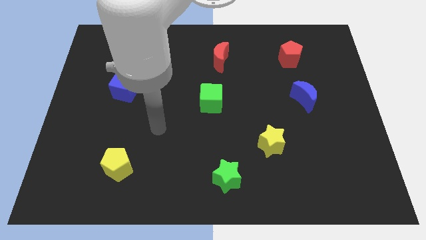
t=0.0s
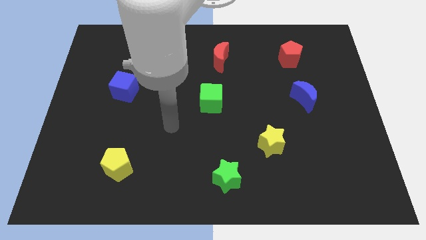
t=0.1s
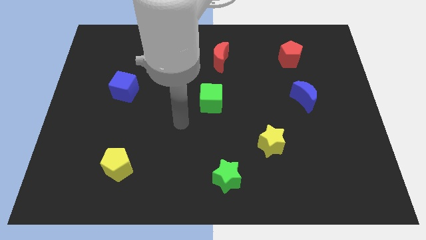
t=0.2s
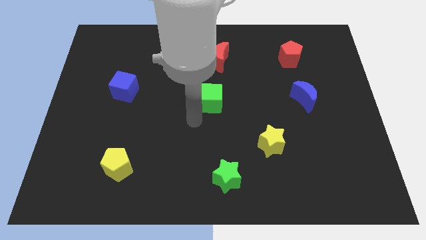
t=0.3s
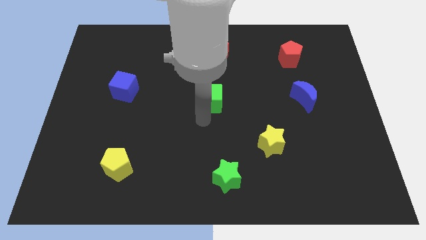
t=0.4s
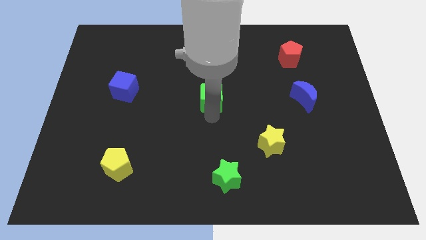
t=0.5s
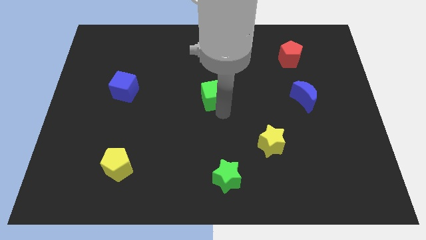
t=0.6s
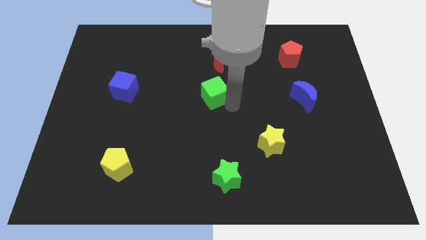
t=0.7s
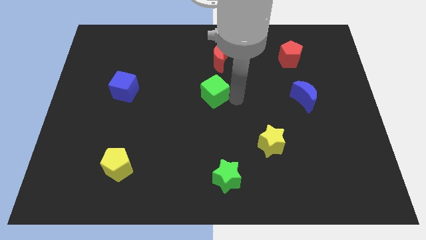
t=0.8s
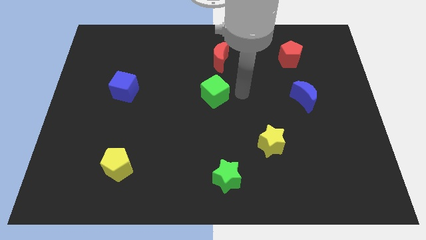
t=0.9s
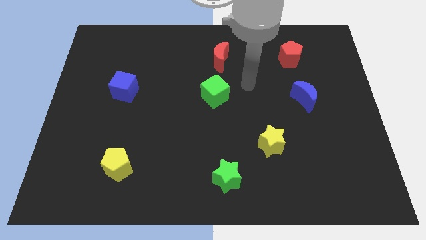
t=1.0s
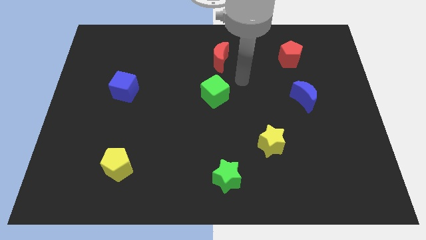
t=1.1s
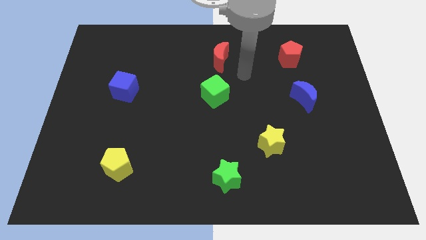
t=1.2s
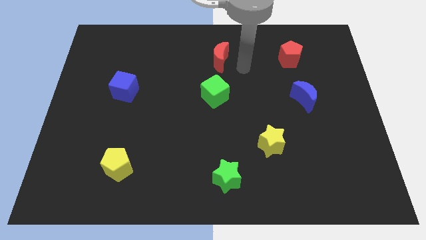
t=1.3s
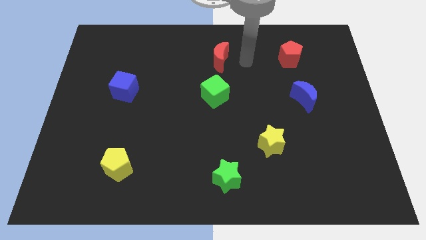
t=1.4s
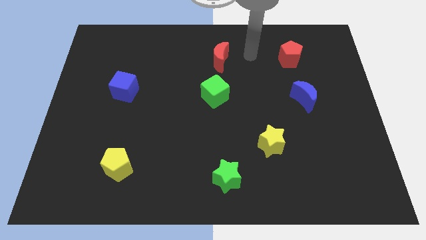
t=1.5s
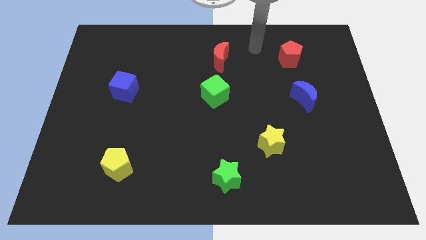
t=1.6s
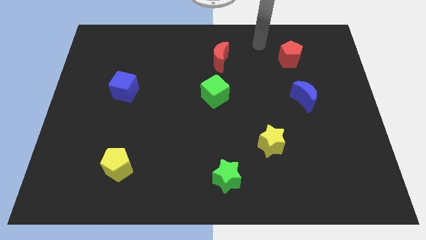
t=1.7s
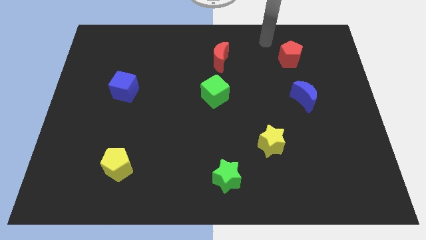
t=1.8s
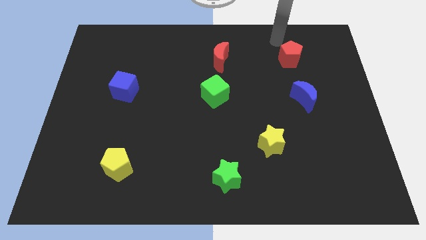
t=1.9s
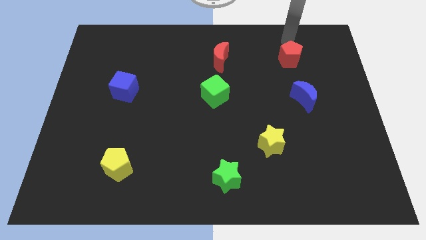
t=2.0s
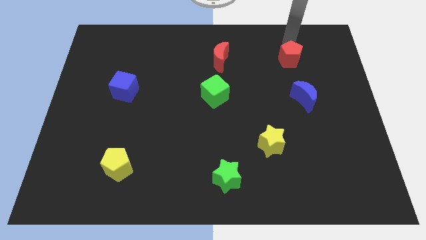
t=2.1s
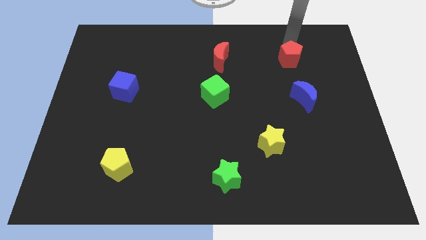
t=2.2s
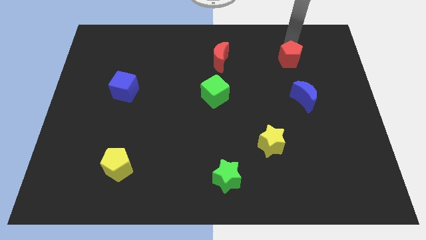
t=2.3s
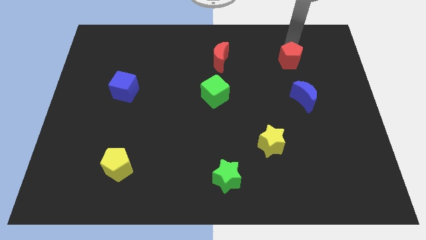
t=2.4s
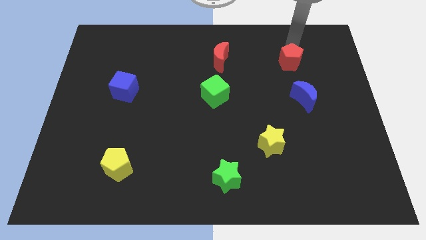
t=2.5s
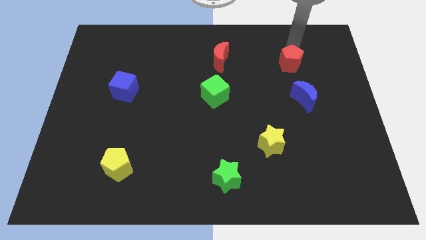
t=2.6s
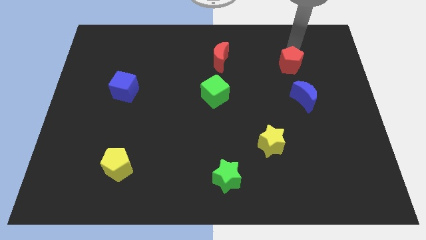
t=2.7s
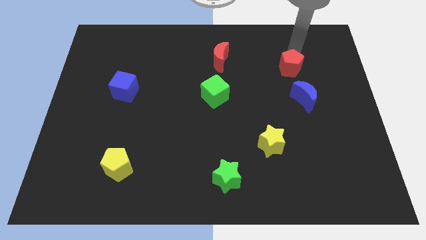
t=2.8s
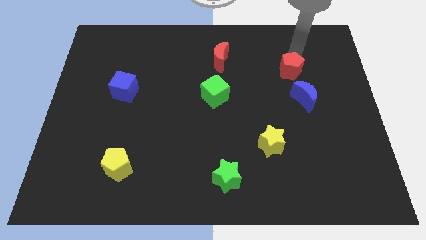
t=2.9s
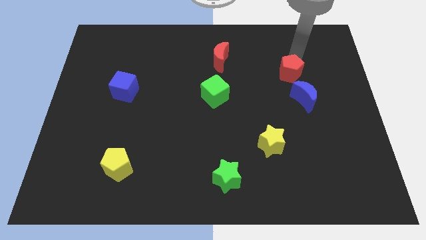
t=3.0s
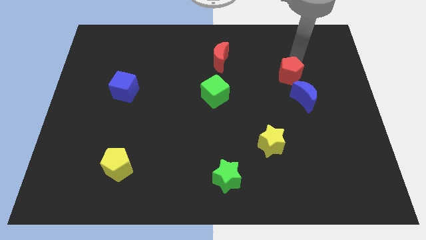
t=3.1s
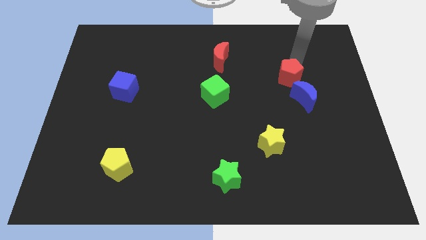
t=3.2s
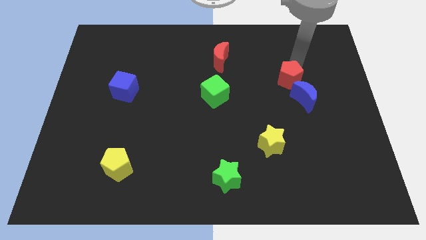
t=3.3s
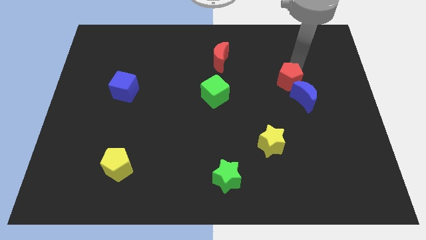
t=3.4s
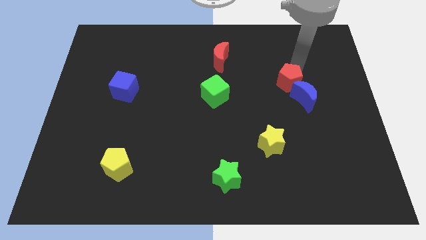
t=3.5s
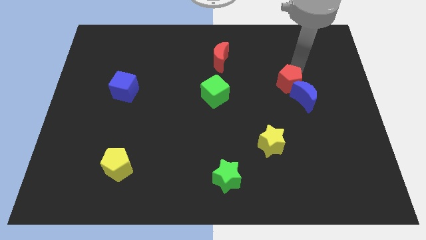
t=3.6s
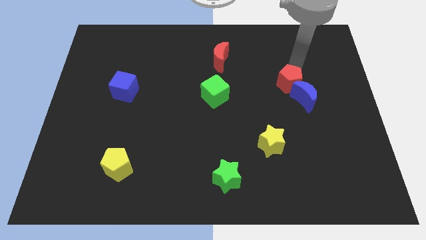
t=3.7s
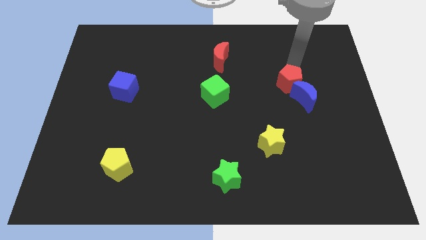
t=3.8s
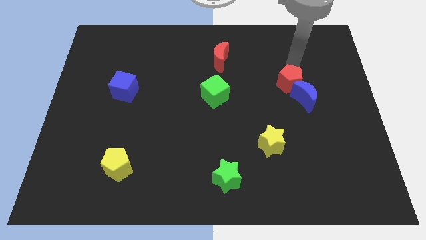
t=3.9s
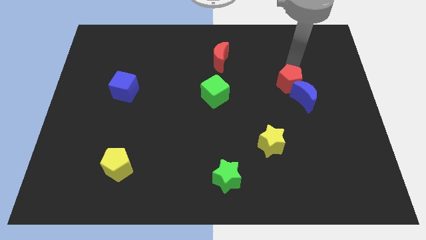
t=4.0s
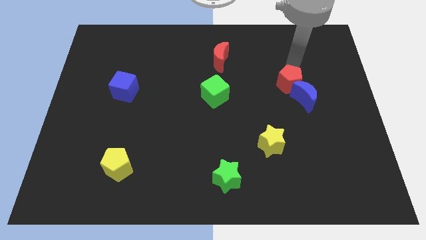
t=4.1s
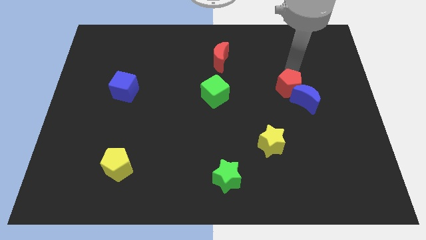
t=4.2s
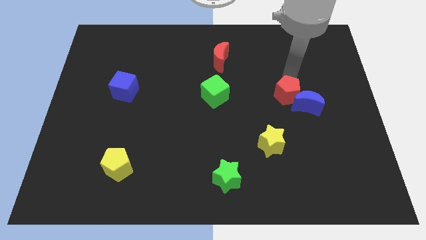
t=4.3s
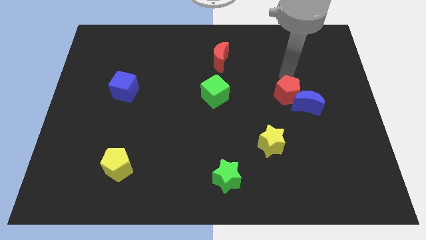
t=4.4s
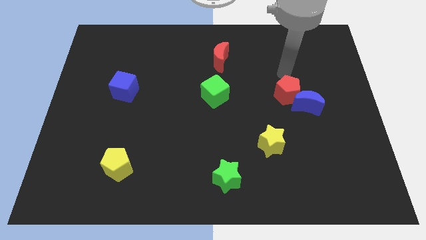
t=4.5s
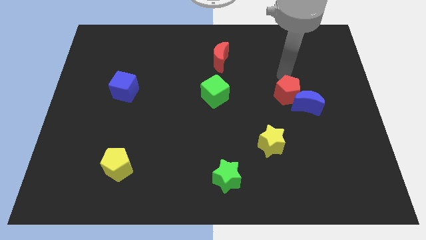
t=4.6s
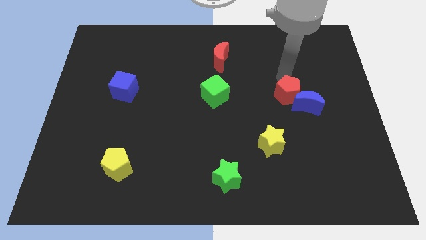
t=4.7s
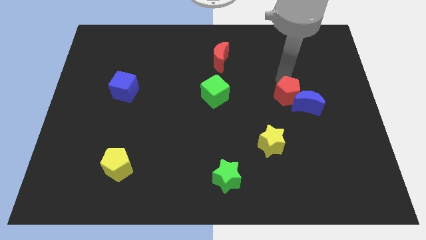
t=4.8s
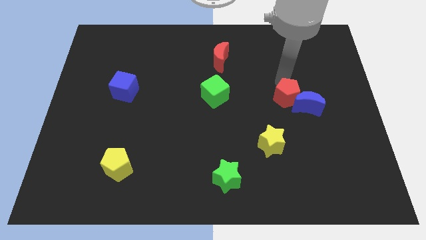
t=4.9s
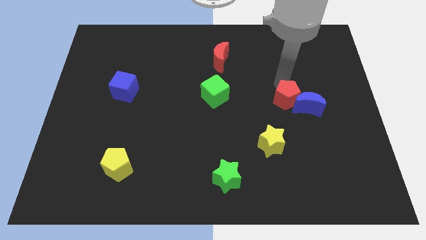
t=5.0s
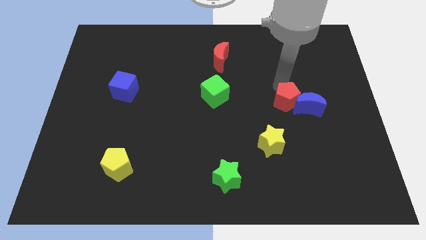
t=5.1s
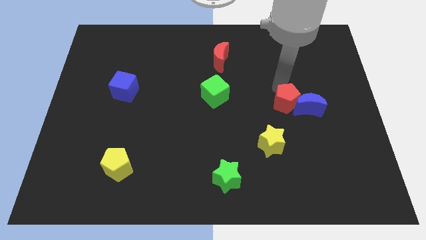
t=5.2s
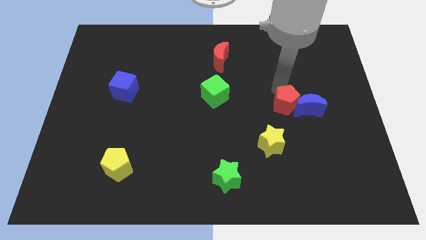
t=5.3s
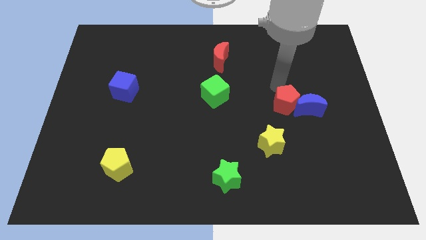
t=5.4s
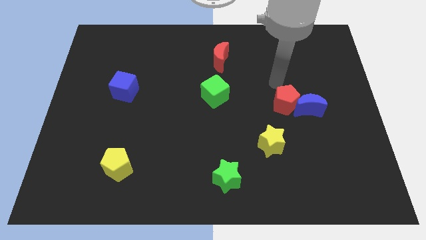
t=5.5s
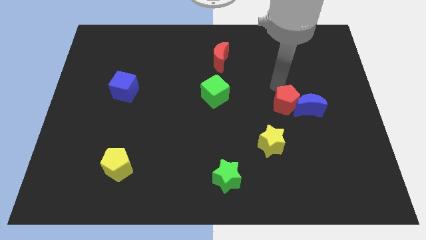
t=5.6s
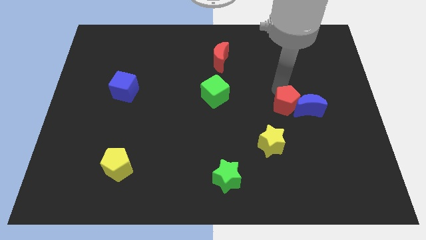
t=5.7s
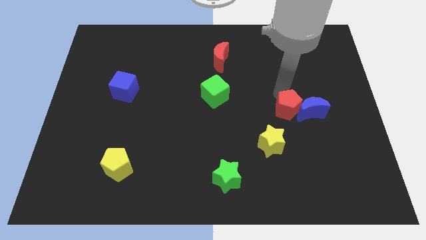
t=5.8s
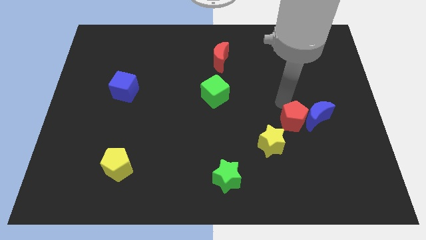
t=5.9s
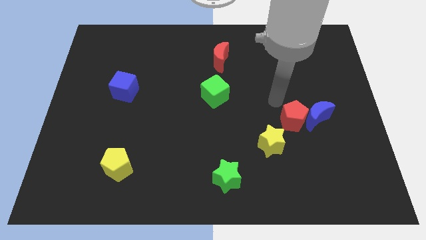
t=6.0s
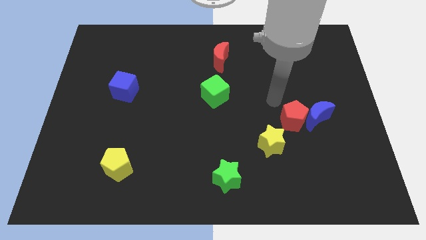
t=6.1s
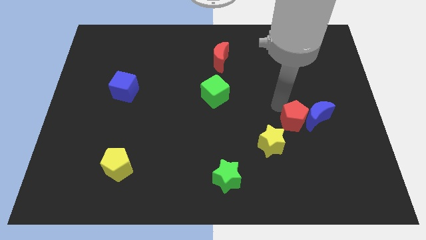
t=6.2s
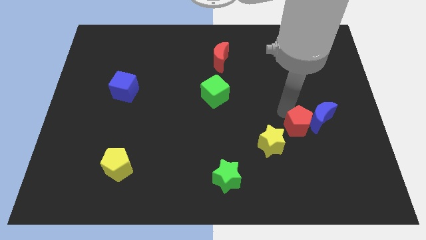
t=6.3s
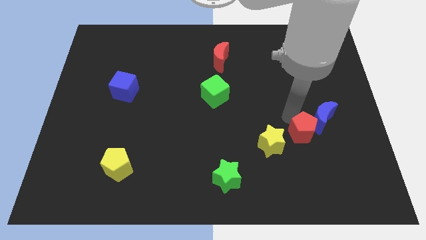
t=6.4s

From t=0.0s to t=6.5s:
push the red pentagon right of the yellow star

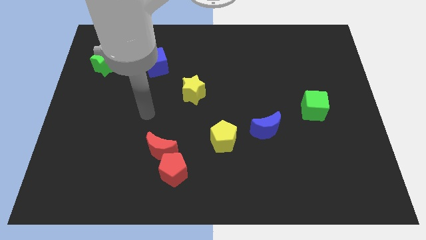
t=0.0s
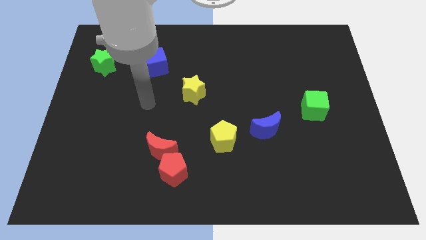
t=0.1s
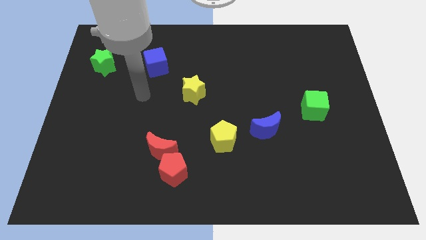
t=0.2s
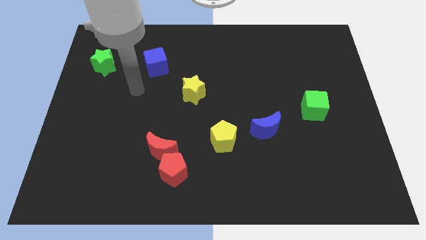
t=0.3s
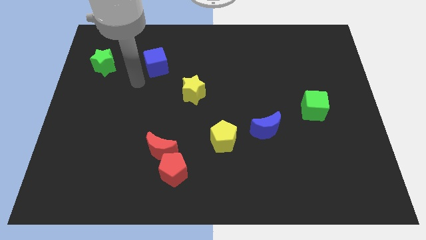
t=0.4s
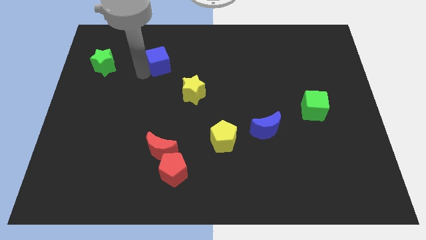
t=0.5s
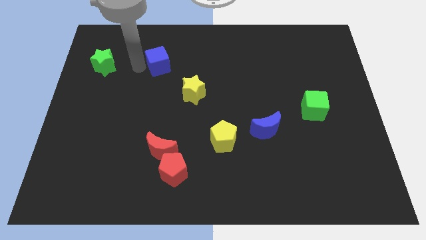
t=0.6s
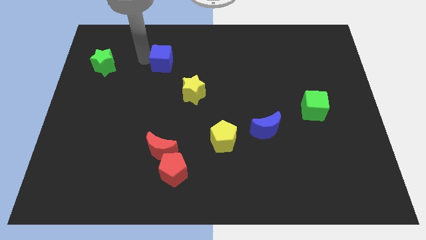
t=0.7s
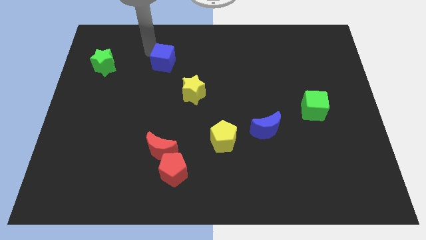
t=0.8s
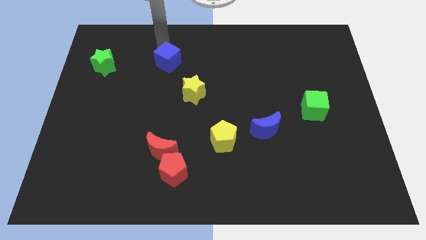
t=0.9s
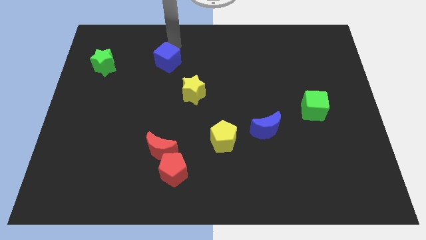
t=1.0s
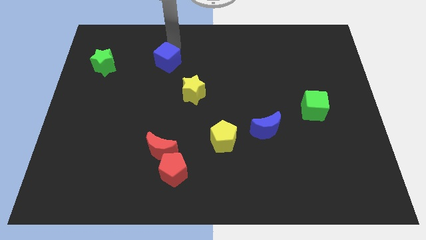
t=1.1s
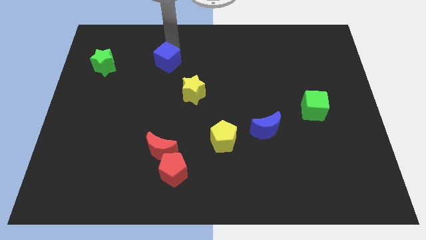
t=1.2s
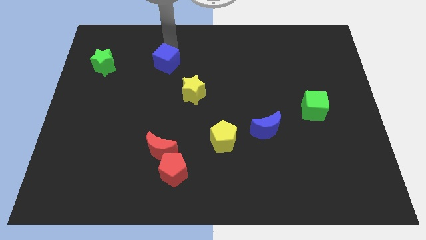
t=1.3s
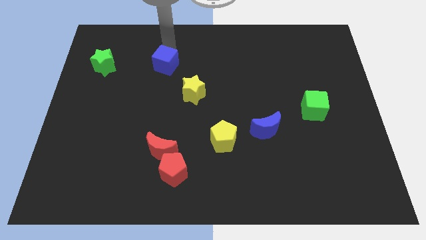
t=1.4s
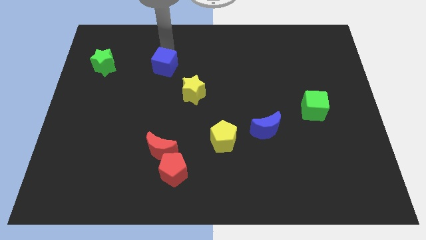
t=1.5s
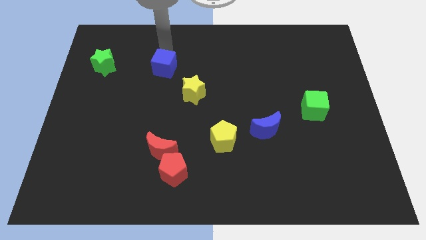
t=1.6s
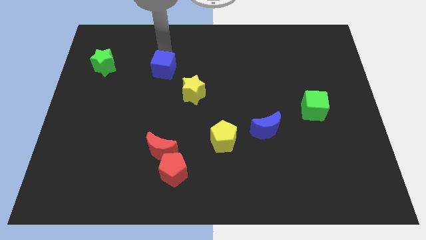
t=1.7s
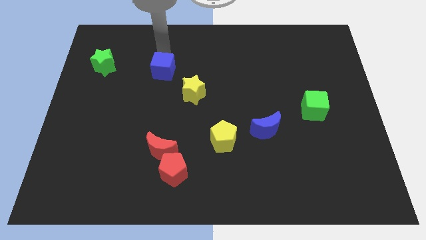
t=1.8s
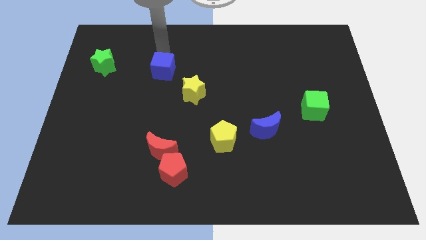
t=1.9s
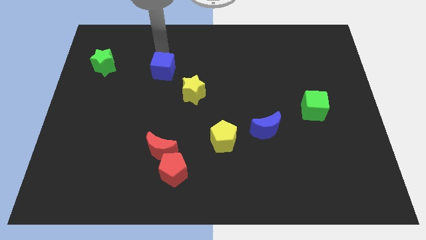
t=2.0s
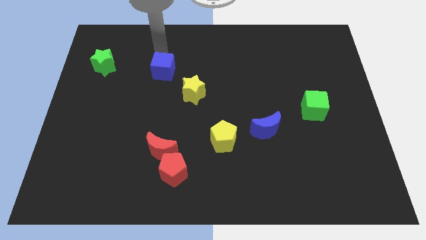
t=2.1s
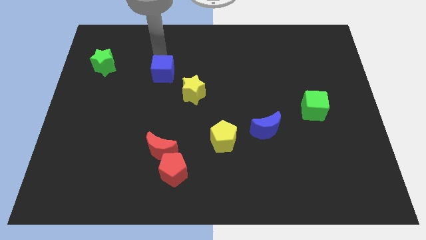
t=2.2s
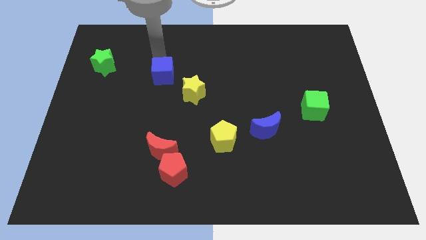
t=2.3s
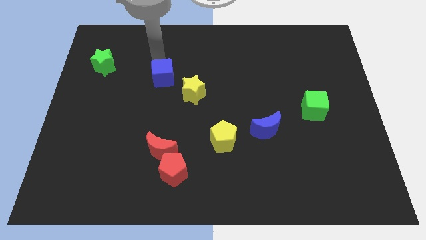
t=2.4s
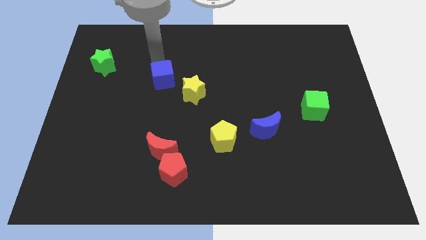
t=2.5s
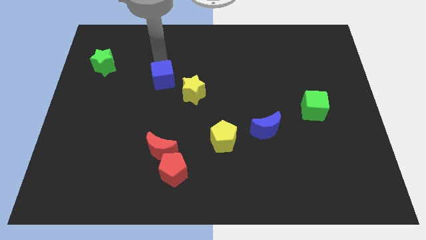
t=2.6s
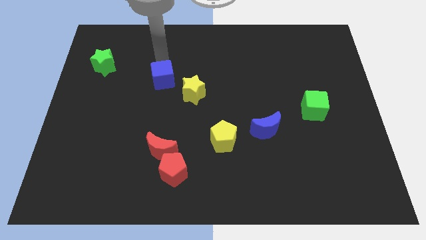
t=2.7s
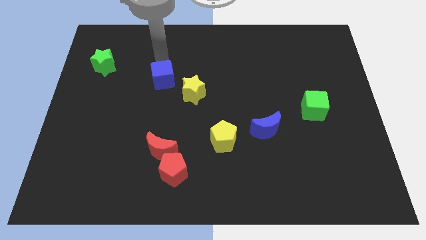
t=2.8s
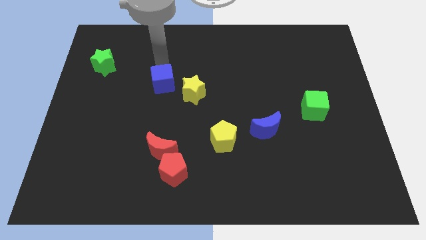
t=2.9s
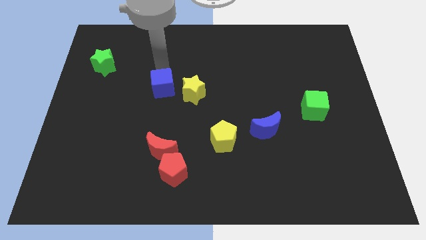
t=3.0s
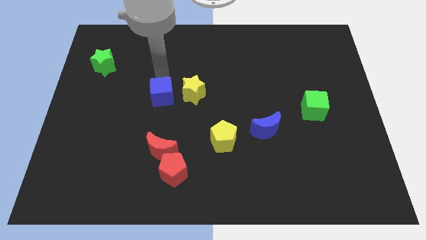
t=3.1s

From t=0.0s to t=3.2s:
push the blue cube to the bottom left side of the yellow star
